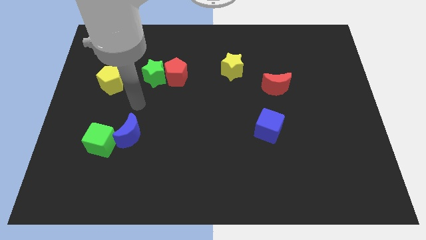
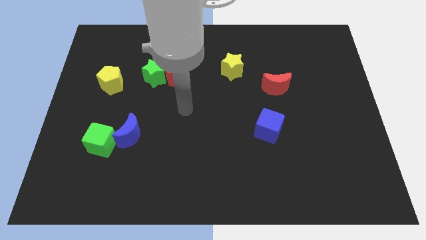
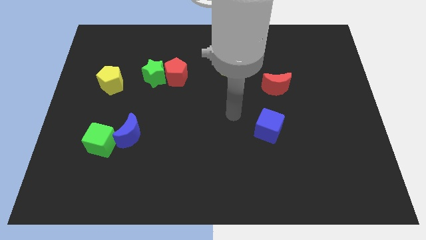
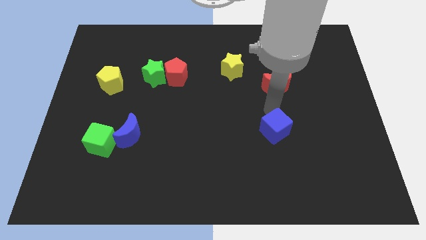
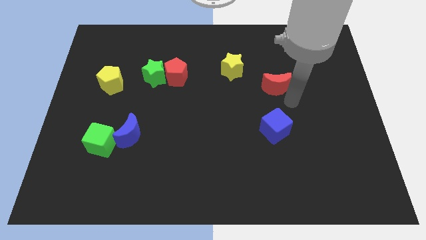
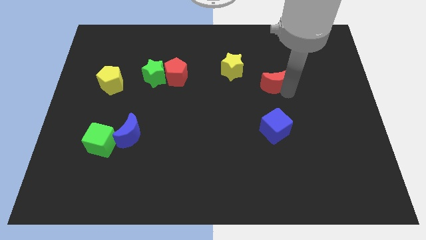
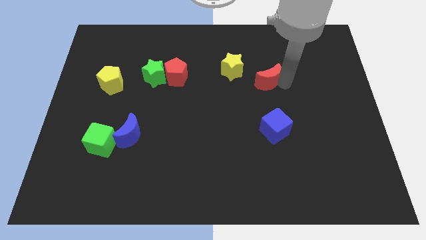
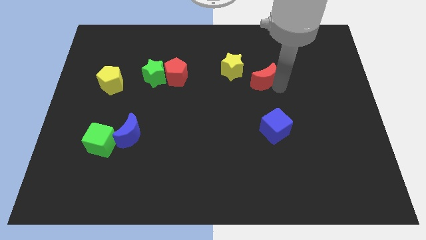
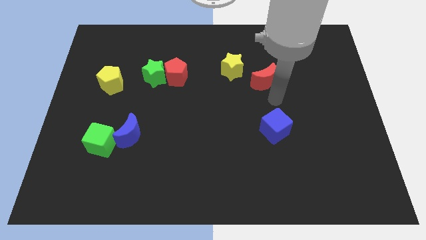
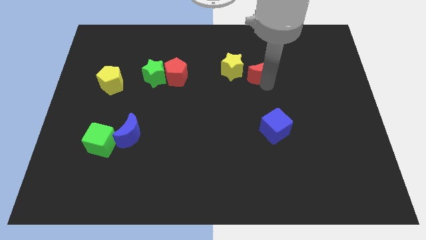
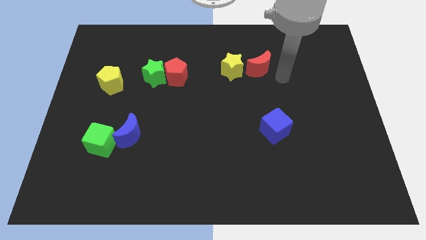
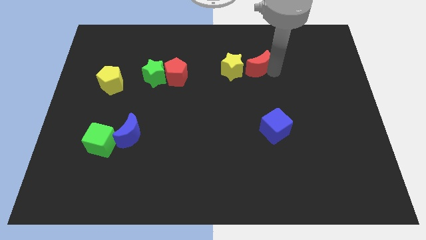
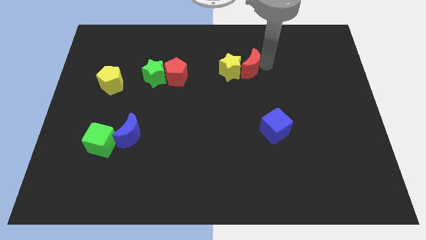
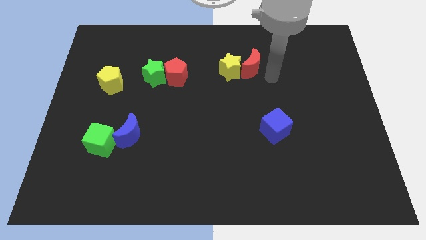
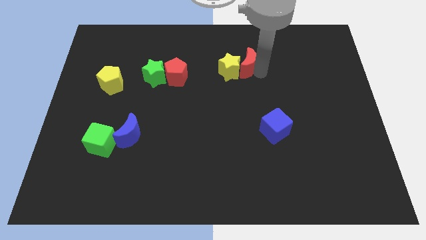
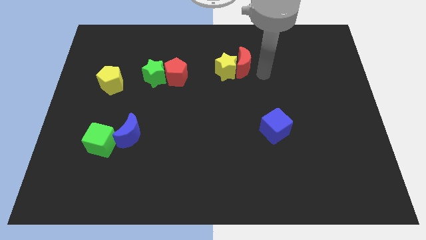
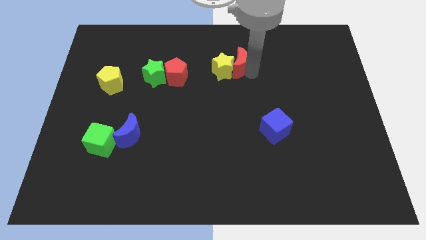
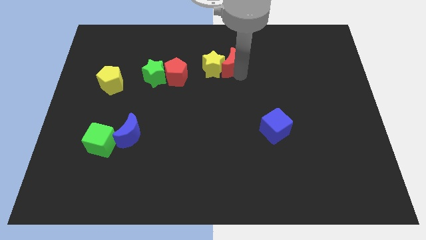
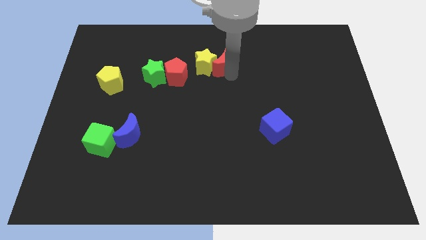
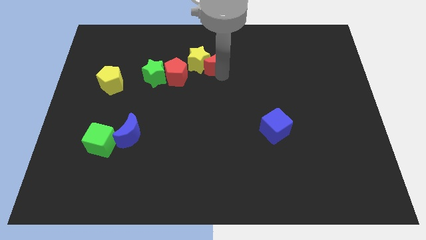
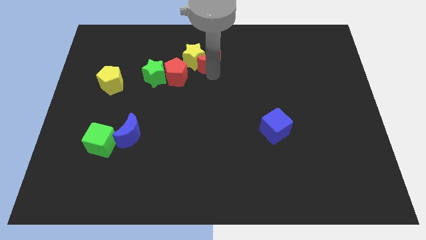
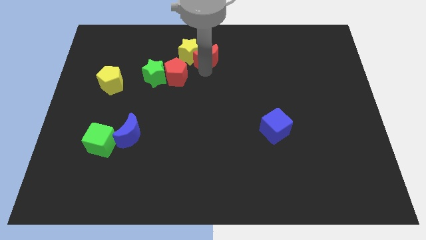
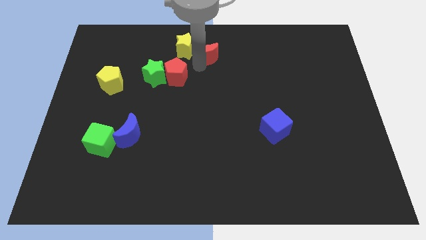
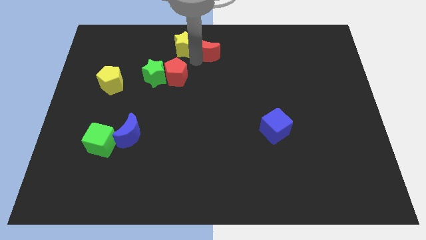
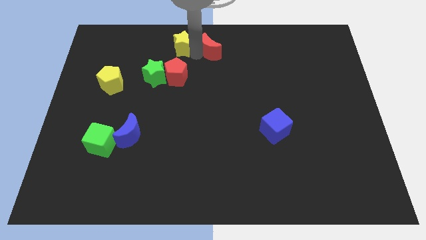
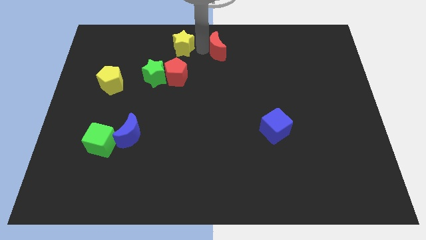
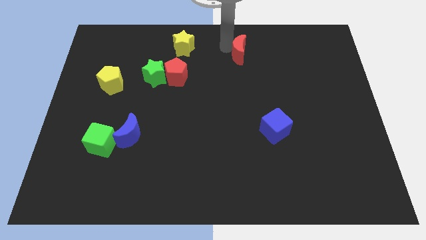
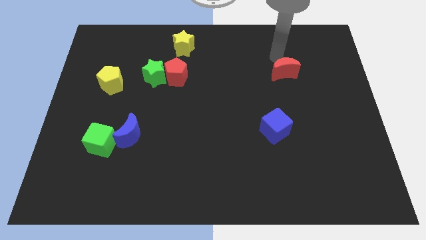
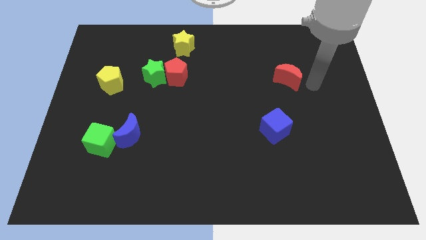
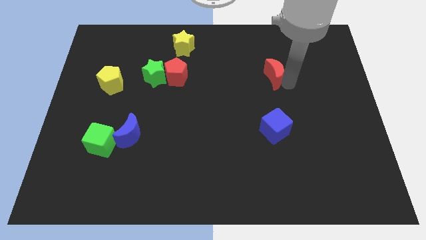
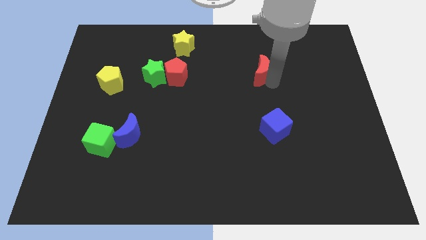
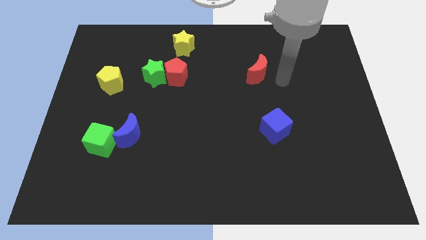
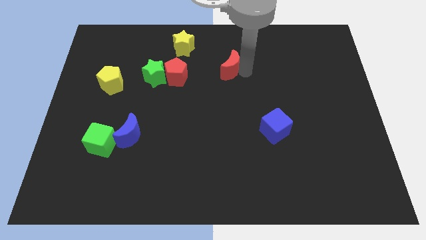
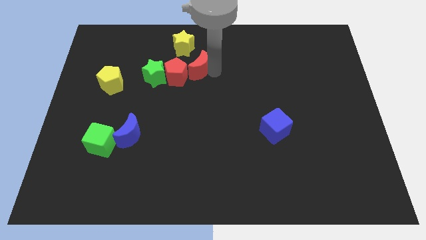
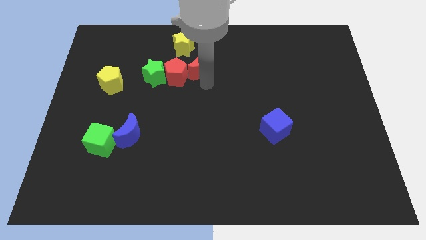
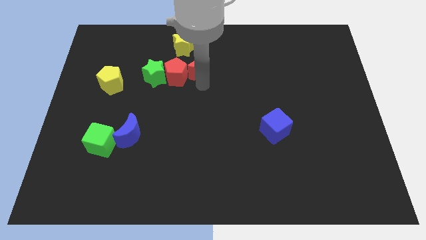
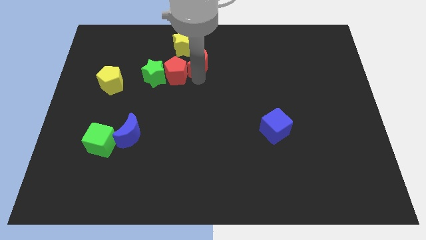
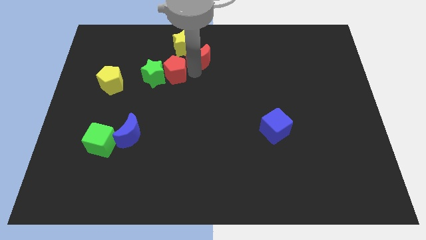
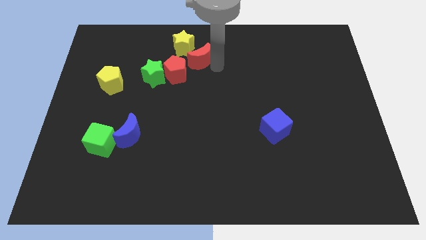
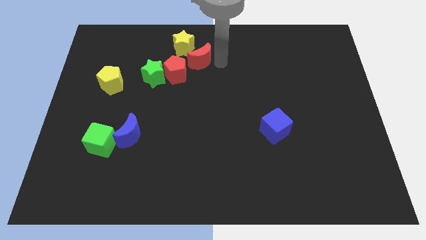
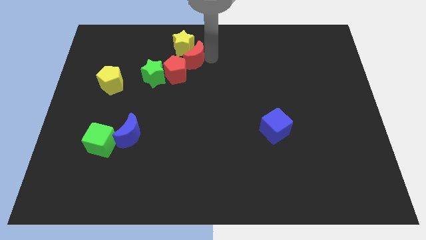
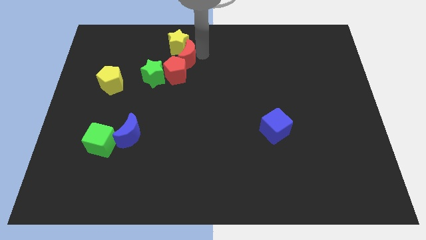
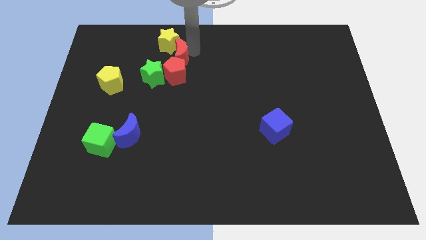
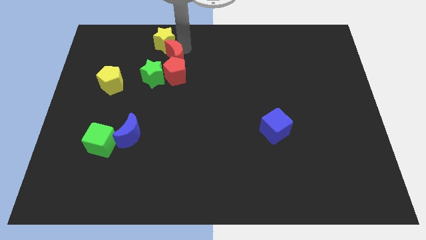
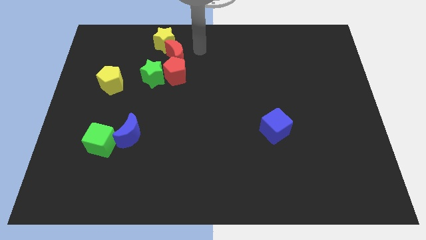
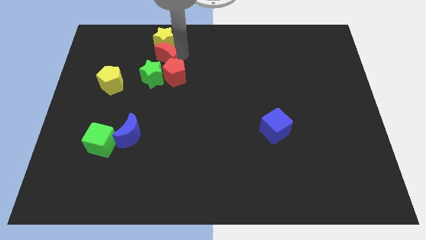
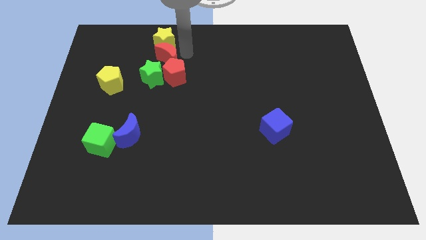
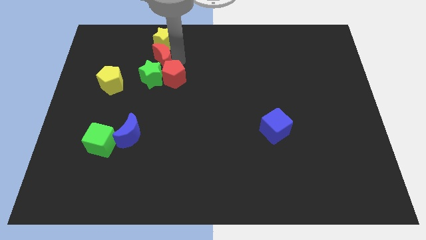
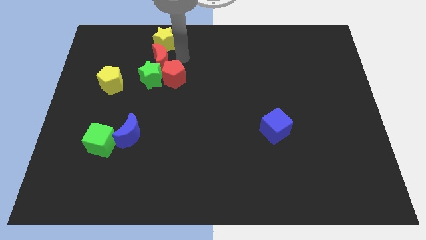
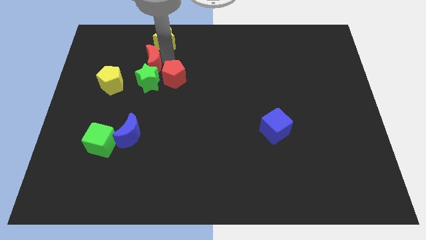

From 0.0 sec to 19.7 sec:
move the red moon to the top right side of the yellow pentagon

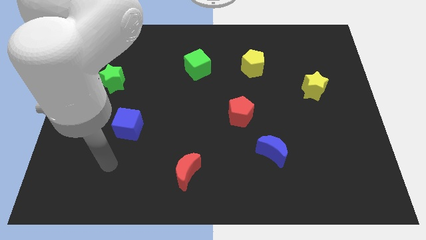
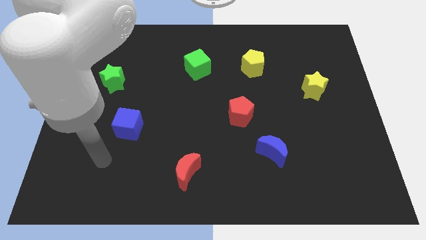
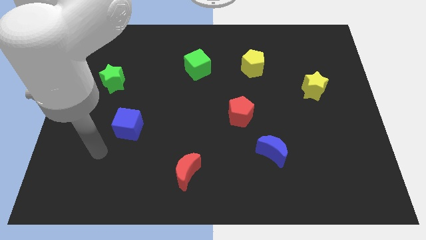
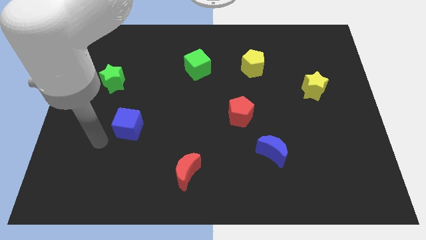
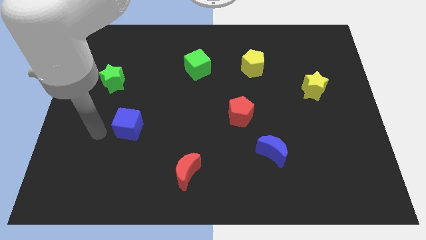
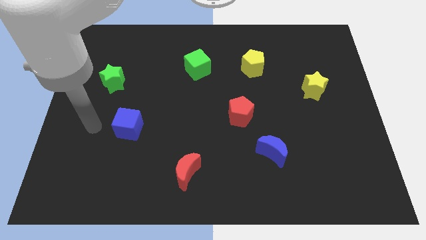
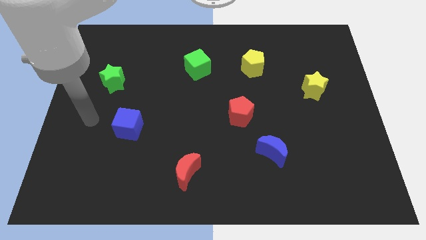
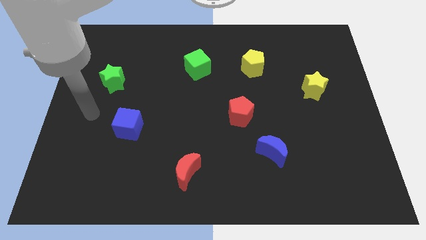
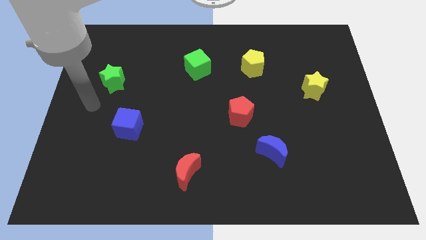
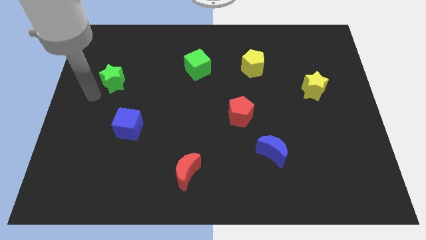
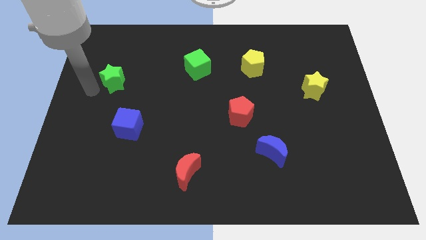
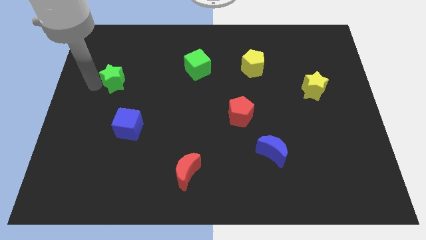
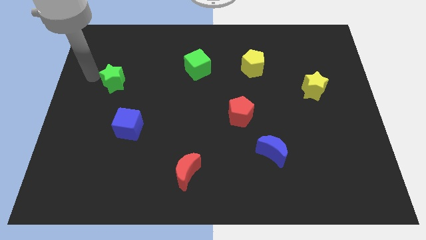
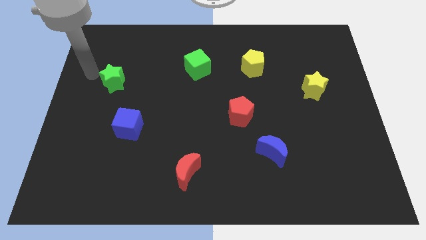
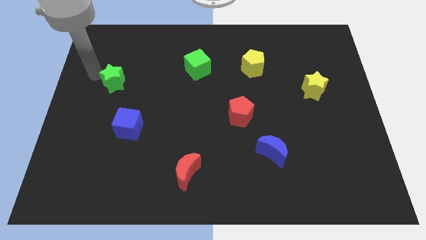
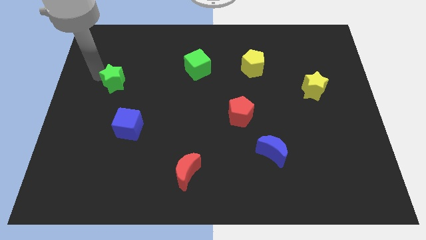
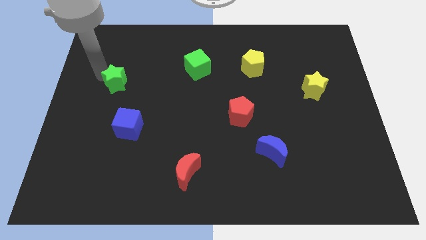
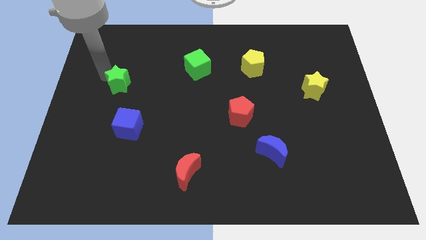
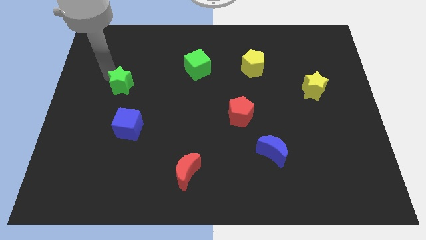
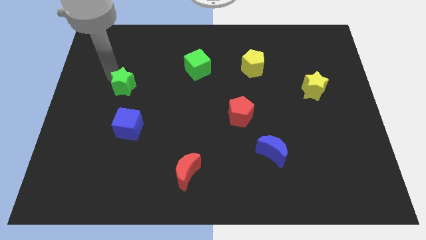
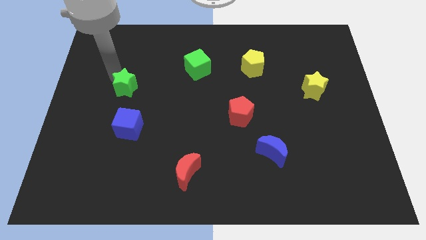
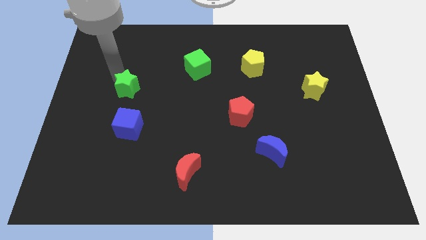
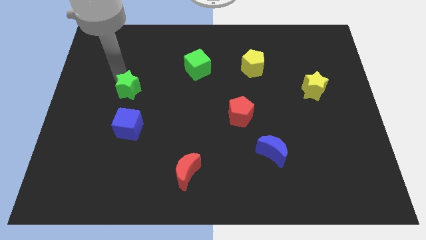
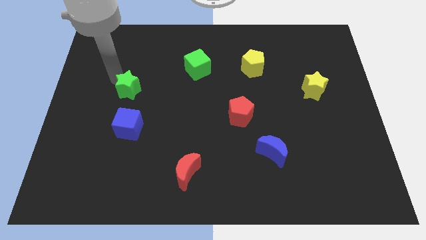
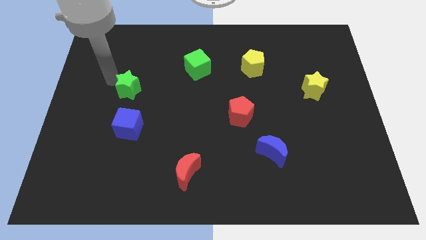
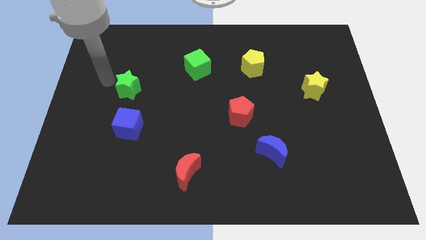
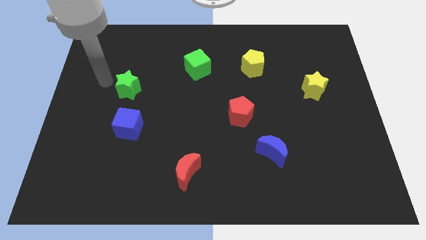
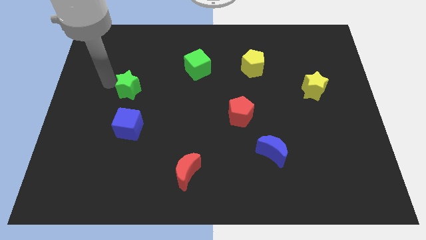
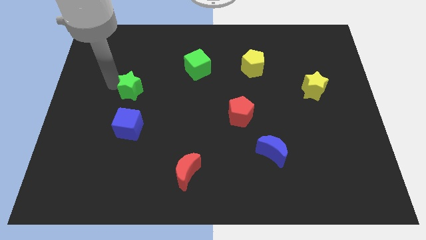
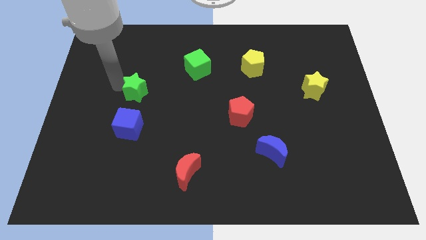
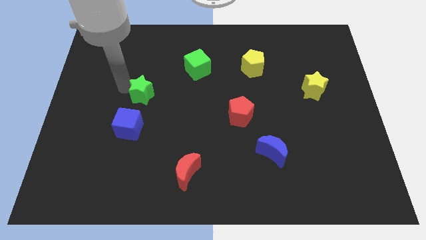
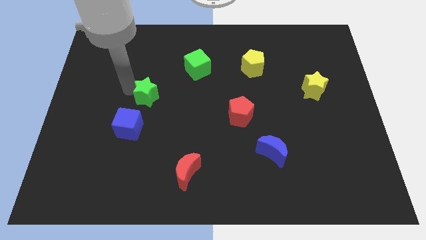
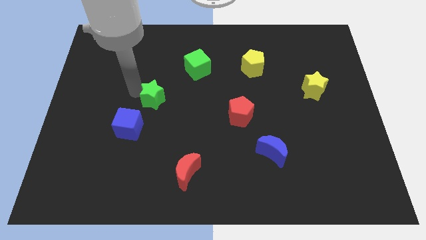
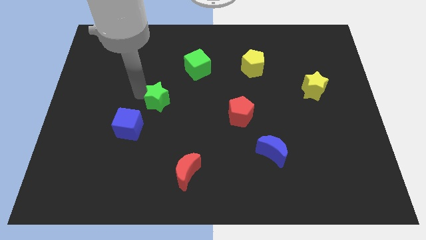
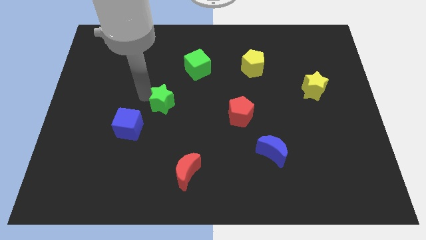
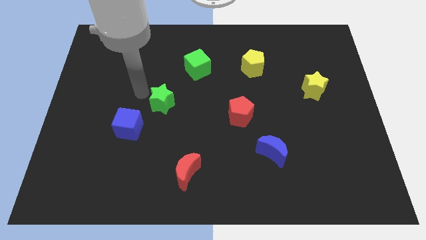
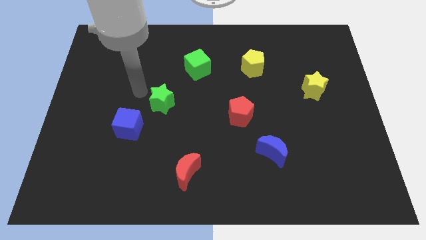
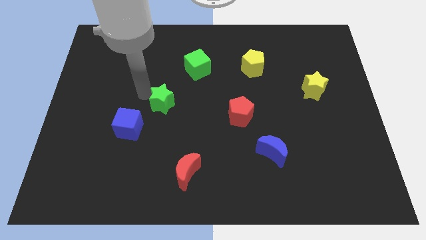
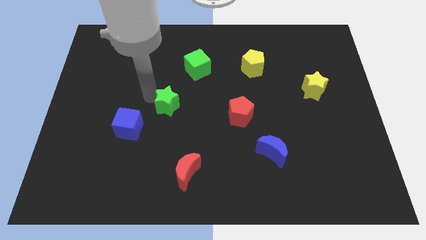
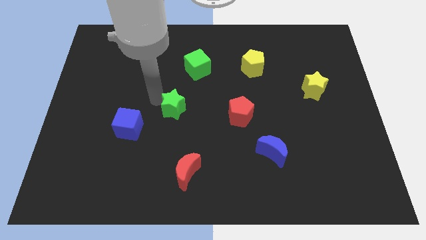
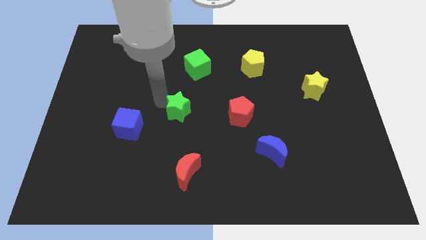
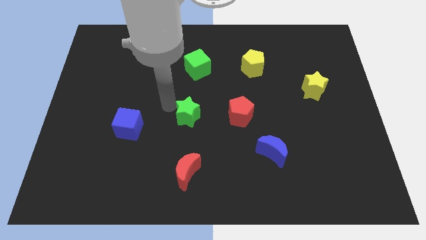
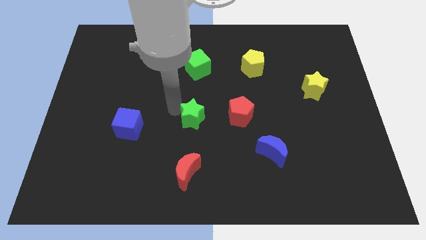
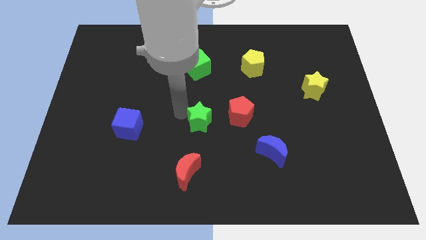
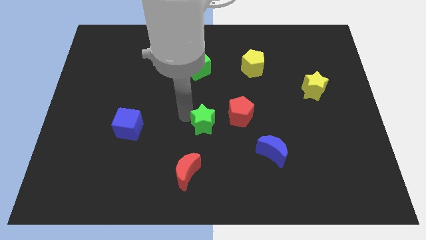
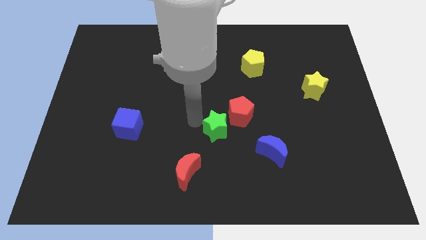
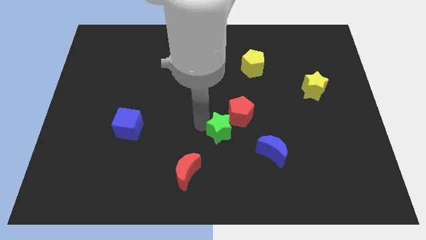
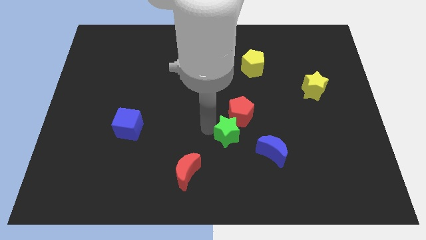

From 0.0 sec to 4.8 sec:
slide the green star to the top left side of the blue moon
